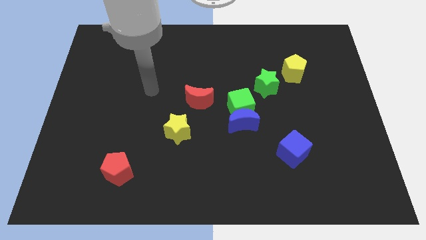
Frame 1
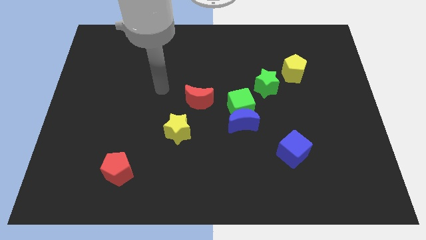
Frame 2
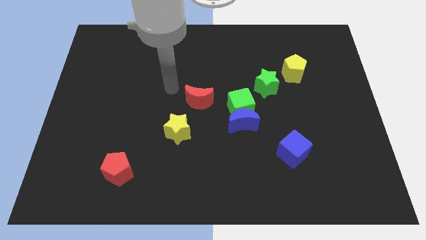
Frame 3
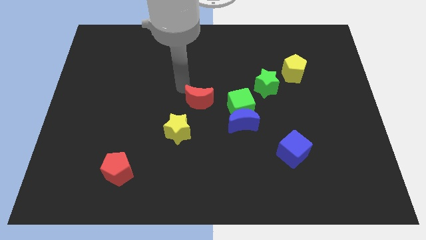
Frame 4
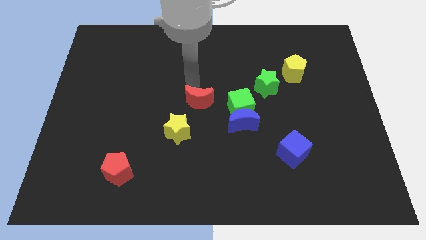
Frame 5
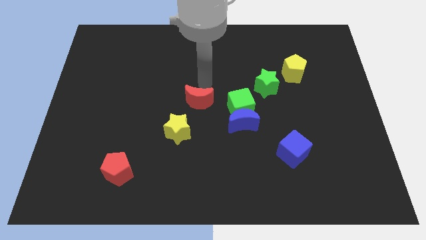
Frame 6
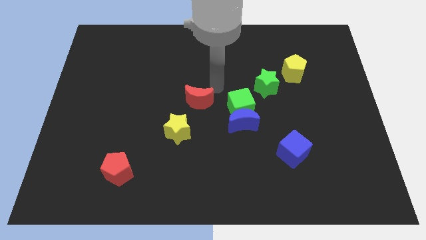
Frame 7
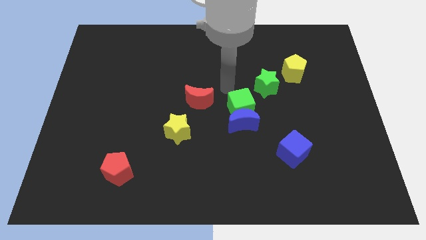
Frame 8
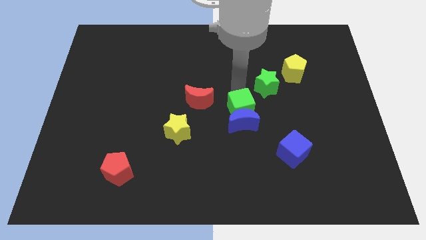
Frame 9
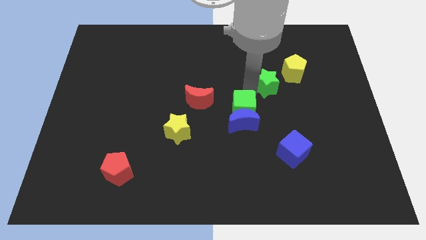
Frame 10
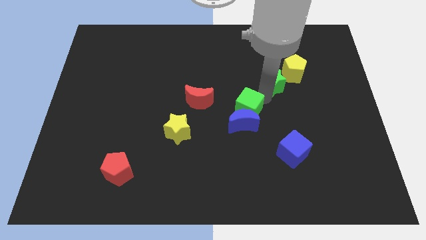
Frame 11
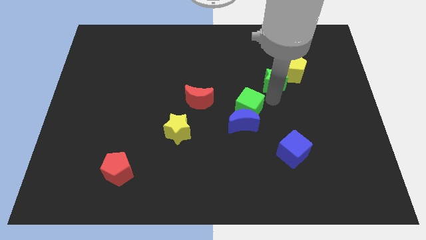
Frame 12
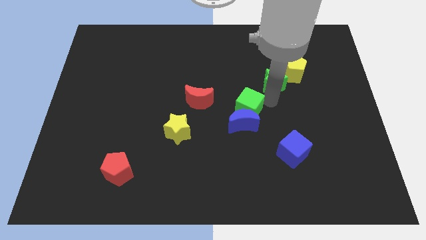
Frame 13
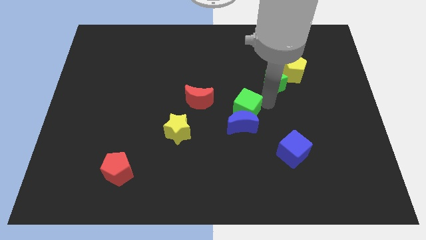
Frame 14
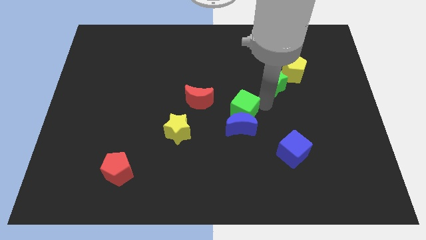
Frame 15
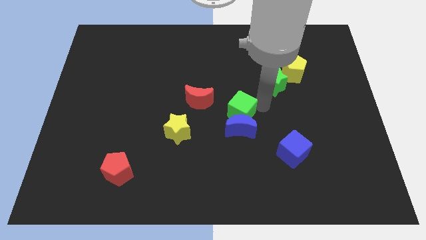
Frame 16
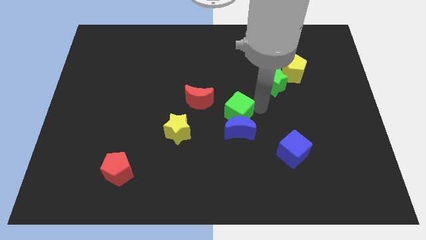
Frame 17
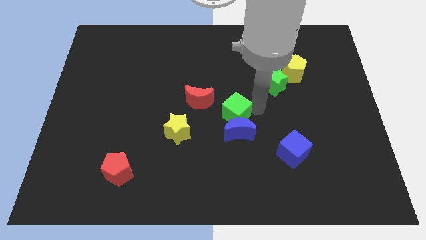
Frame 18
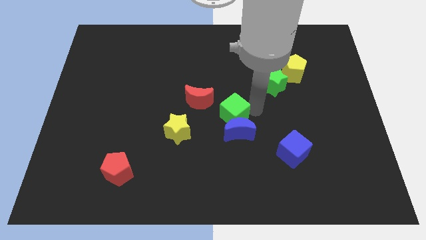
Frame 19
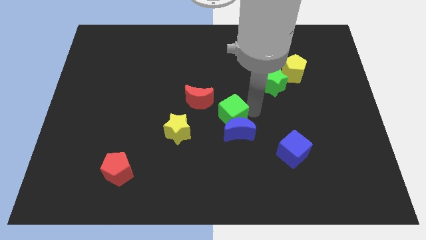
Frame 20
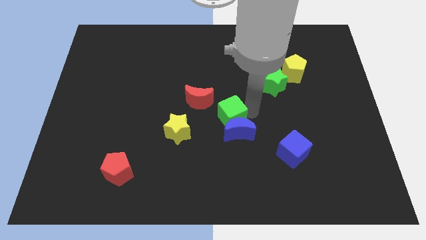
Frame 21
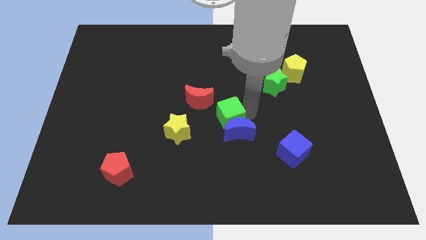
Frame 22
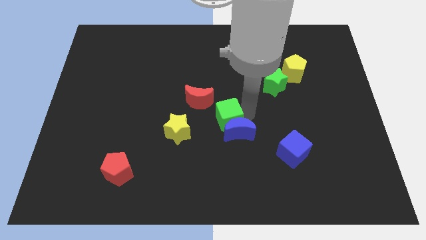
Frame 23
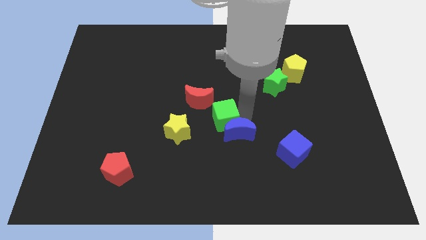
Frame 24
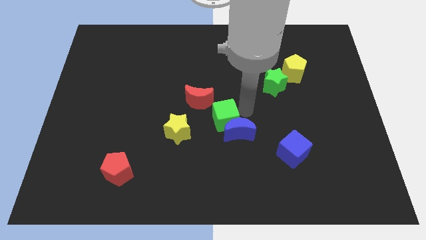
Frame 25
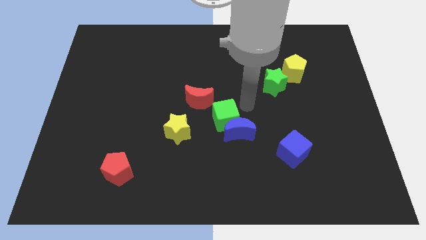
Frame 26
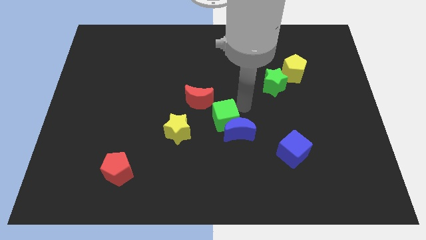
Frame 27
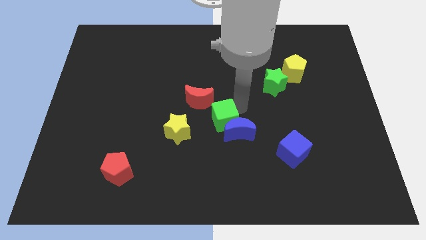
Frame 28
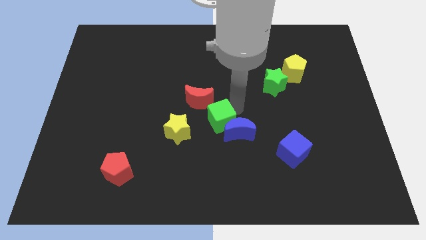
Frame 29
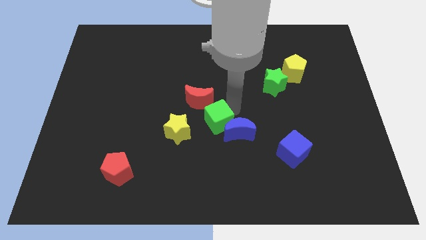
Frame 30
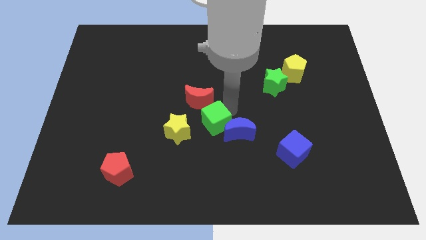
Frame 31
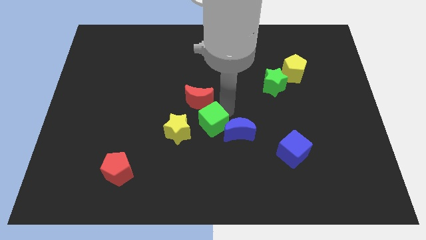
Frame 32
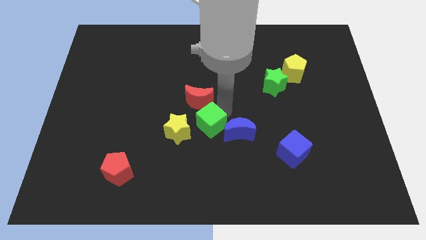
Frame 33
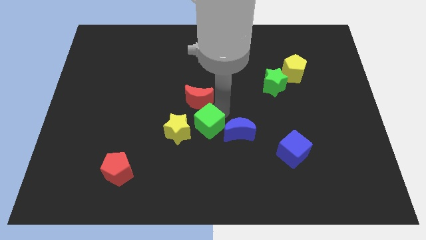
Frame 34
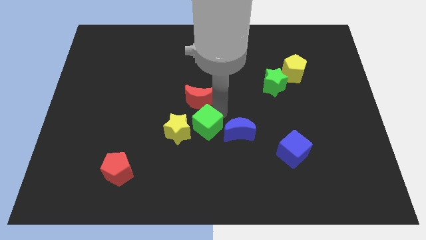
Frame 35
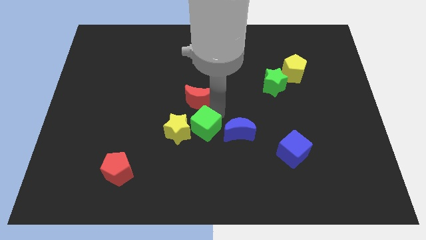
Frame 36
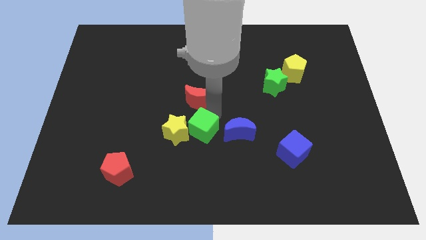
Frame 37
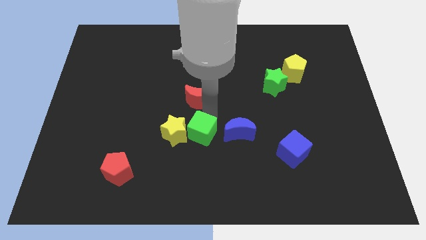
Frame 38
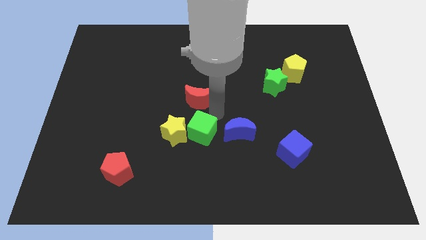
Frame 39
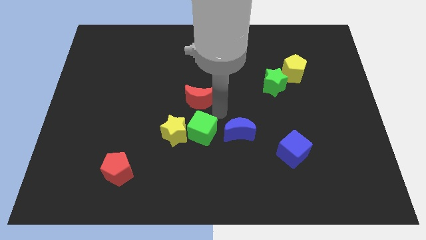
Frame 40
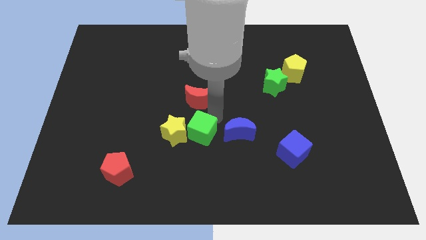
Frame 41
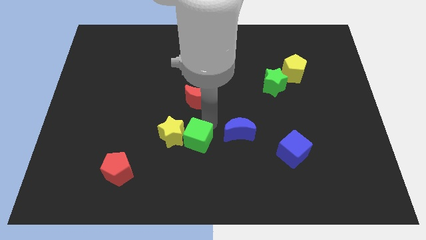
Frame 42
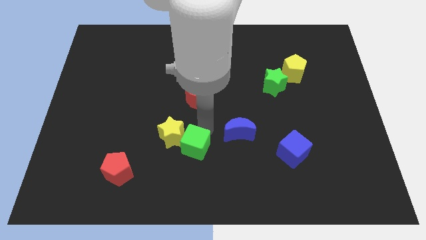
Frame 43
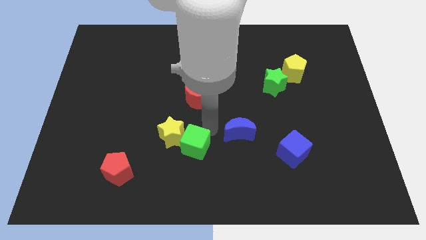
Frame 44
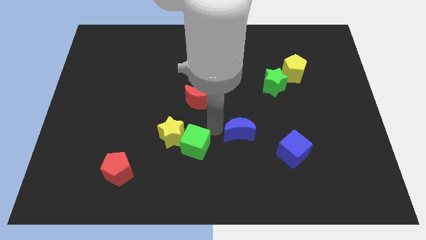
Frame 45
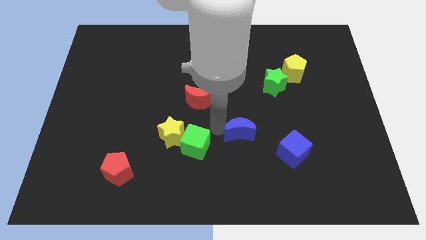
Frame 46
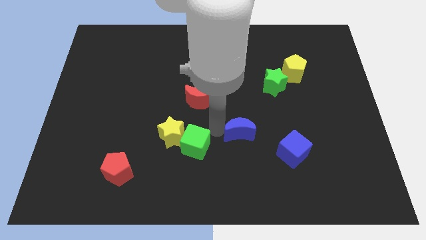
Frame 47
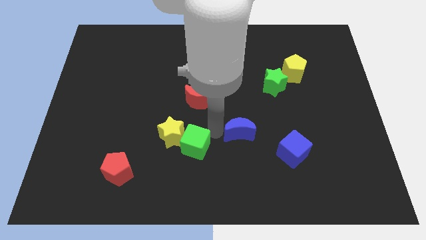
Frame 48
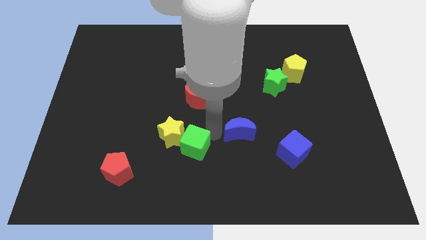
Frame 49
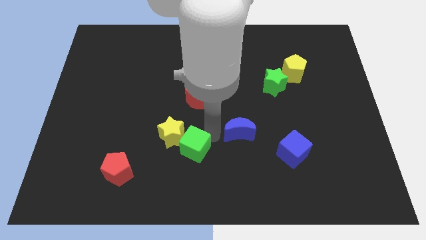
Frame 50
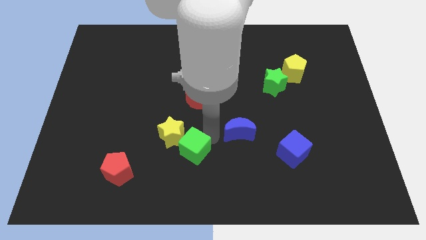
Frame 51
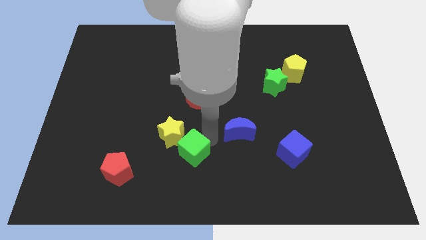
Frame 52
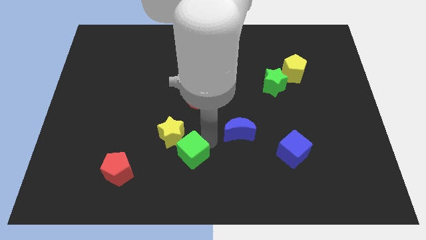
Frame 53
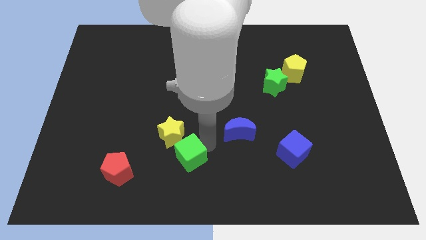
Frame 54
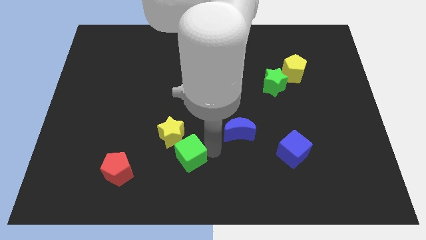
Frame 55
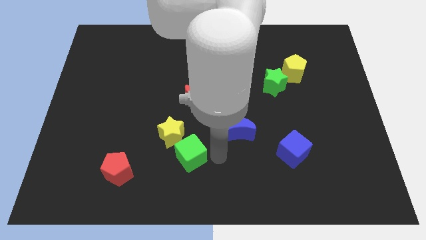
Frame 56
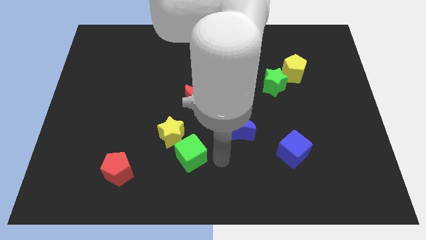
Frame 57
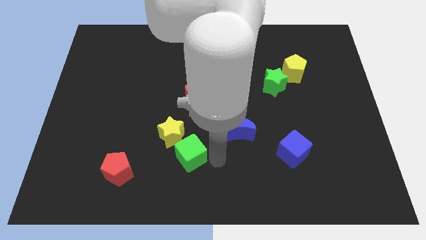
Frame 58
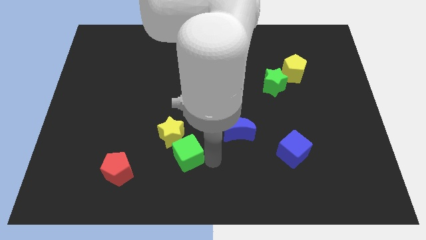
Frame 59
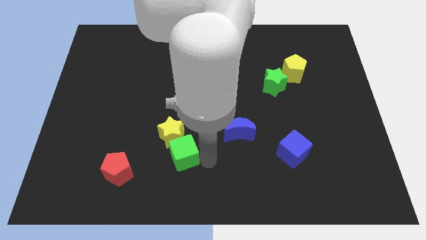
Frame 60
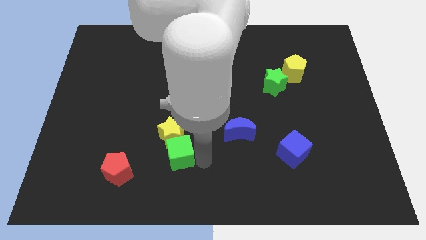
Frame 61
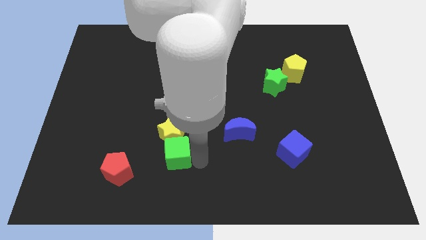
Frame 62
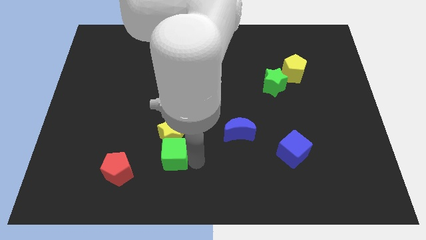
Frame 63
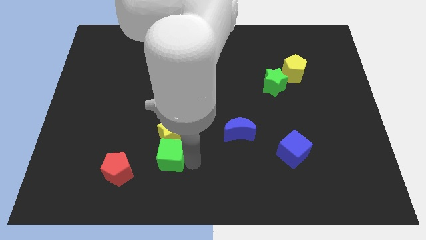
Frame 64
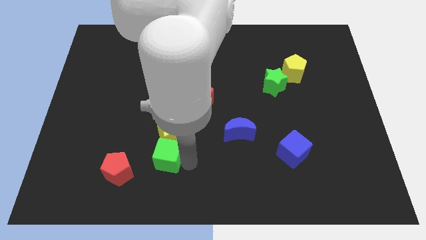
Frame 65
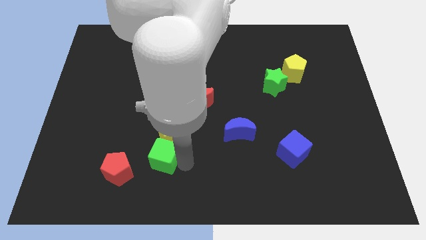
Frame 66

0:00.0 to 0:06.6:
move the green cube to the top right of the red pentagon
